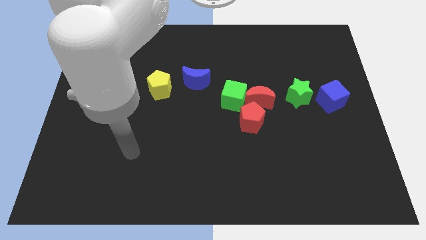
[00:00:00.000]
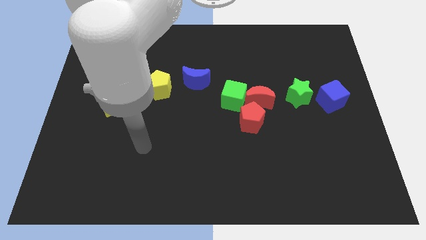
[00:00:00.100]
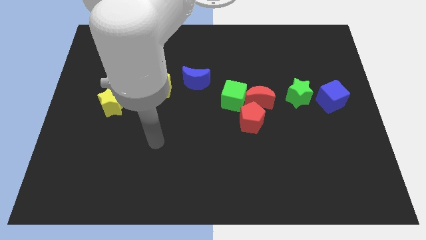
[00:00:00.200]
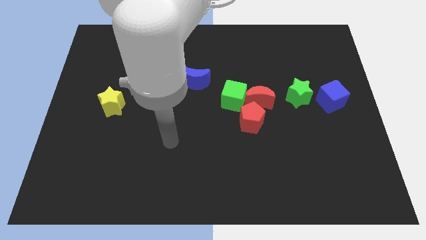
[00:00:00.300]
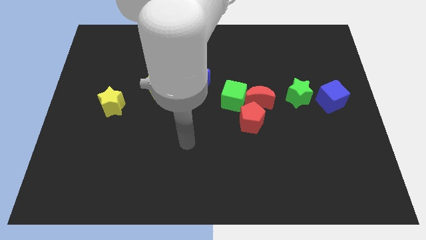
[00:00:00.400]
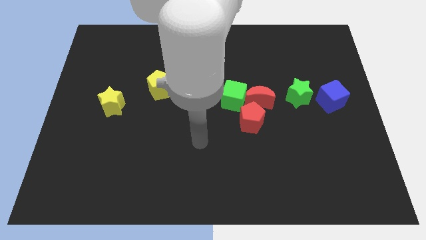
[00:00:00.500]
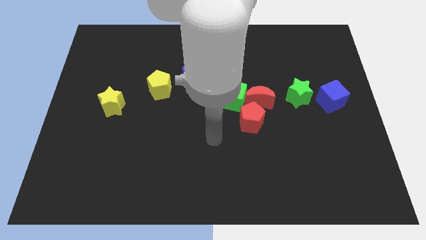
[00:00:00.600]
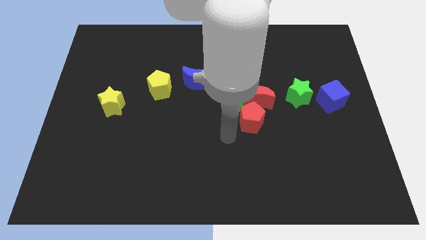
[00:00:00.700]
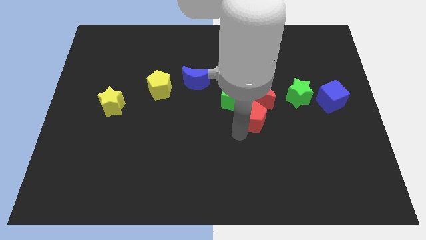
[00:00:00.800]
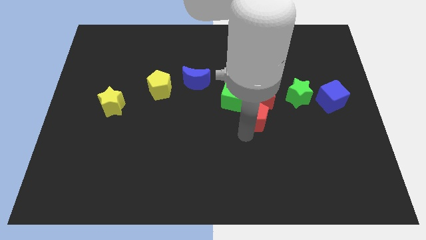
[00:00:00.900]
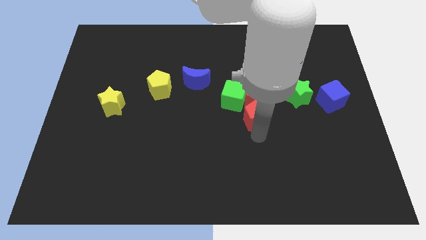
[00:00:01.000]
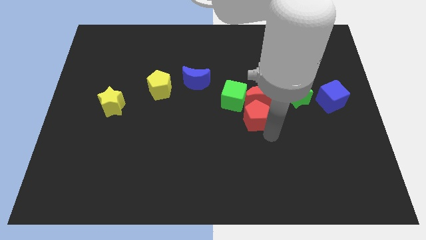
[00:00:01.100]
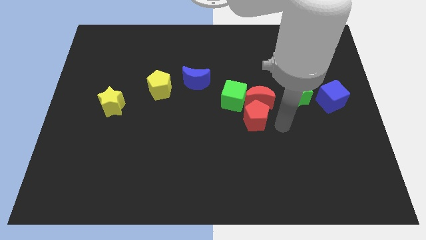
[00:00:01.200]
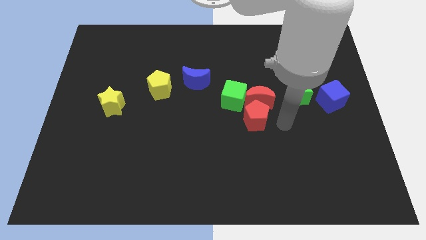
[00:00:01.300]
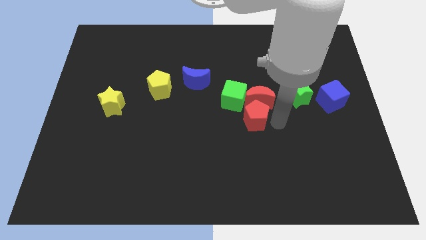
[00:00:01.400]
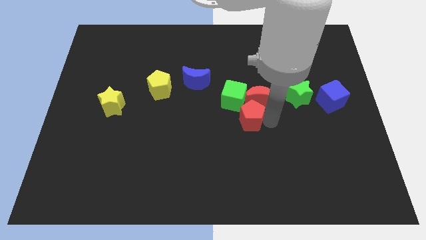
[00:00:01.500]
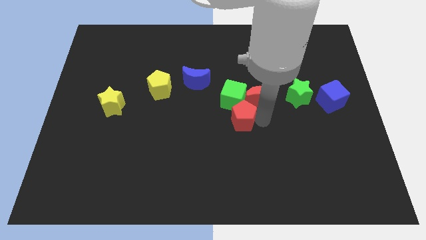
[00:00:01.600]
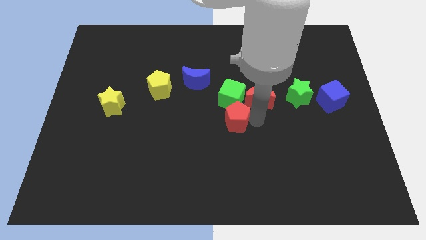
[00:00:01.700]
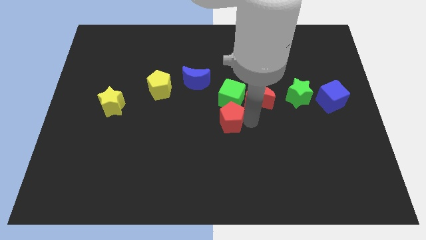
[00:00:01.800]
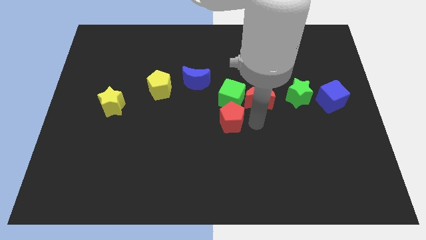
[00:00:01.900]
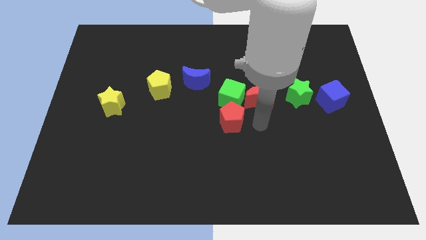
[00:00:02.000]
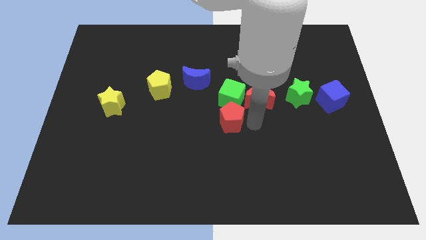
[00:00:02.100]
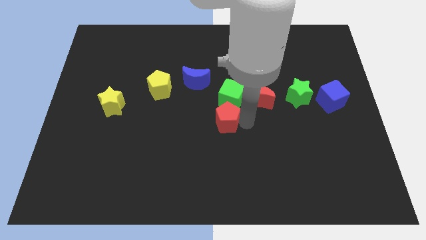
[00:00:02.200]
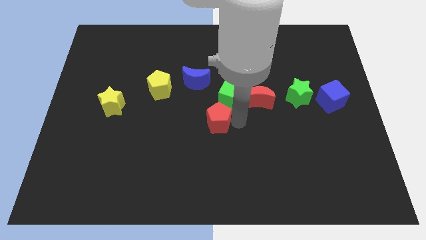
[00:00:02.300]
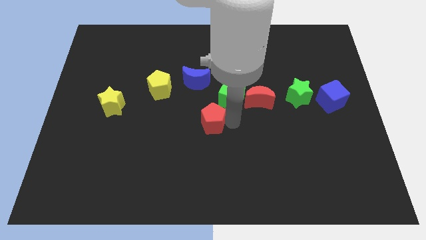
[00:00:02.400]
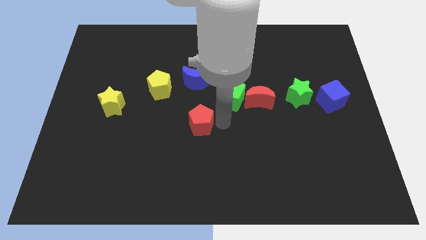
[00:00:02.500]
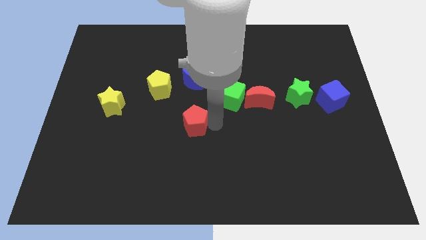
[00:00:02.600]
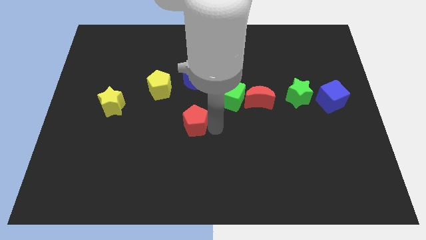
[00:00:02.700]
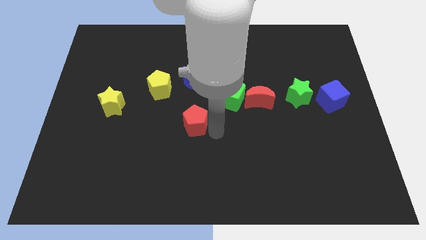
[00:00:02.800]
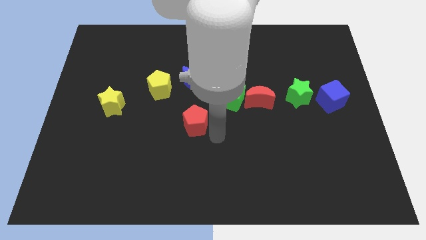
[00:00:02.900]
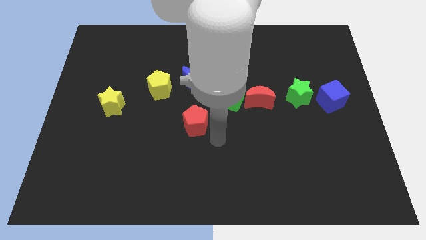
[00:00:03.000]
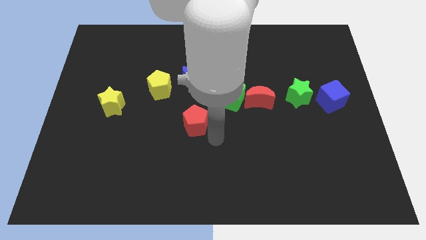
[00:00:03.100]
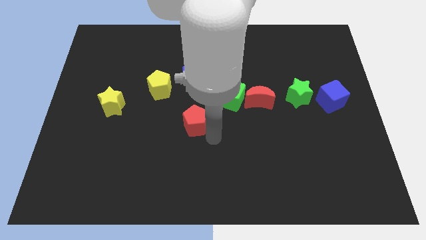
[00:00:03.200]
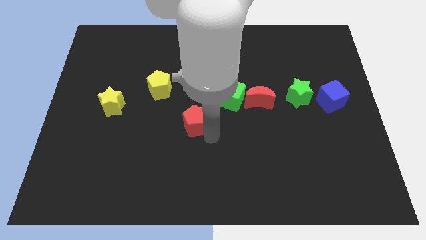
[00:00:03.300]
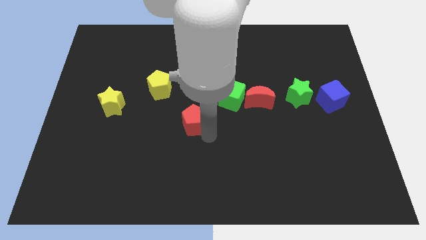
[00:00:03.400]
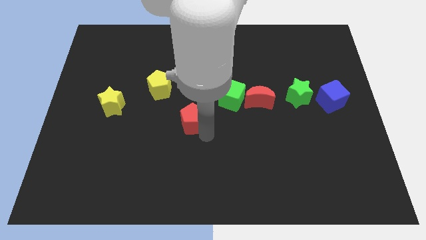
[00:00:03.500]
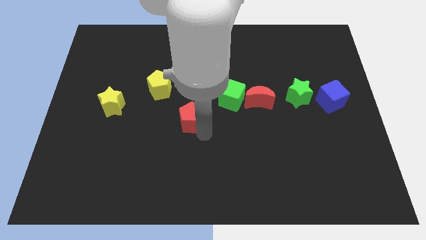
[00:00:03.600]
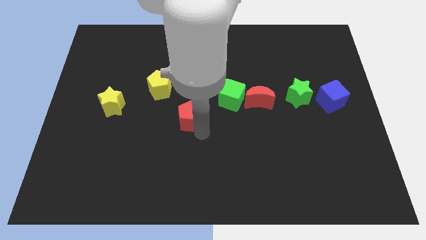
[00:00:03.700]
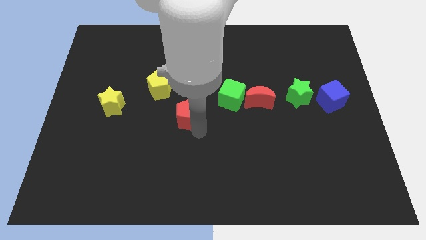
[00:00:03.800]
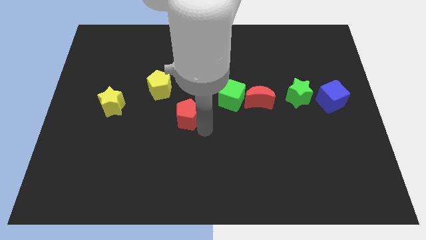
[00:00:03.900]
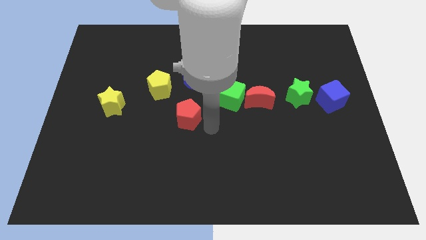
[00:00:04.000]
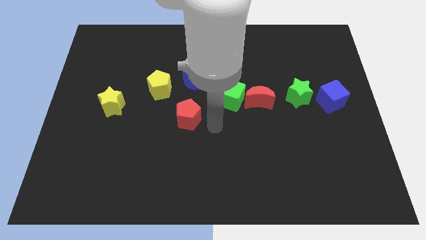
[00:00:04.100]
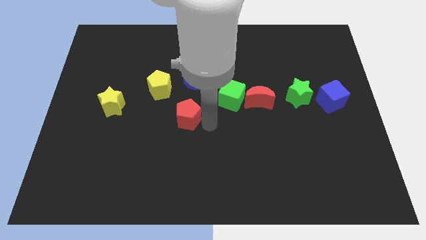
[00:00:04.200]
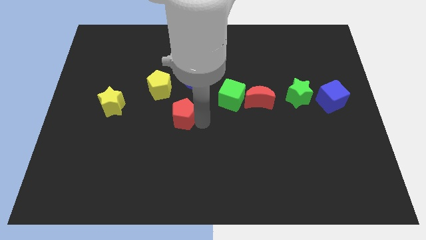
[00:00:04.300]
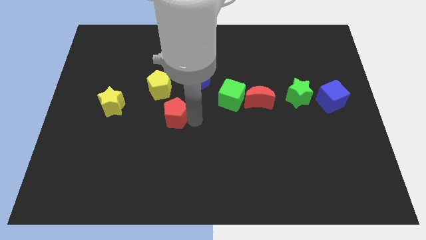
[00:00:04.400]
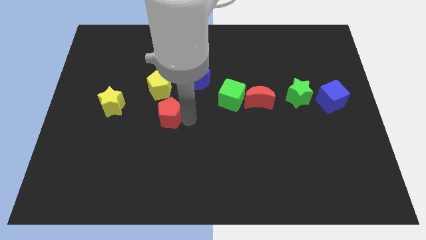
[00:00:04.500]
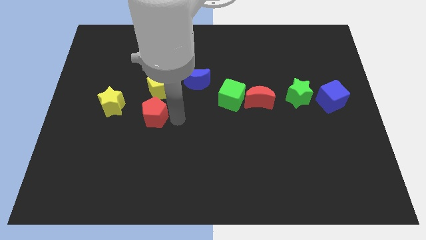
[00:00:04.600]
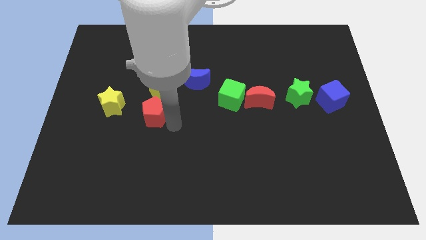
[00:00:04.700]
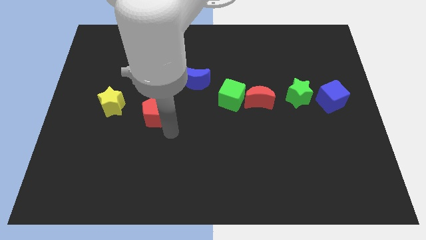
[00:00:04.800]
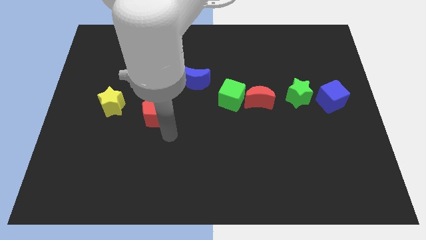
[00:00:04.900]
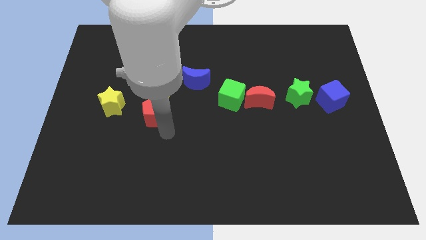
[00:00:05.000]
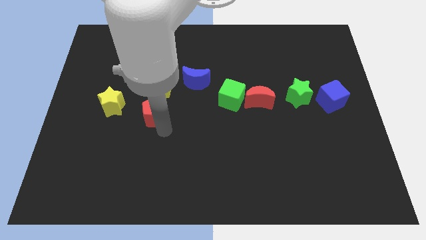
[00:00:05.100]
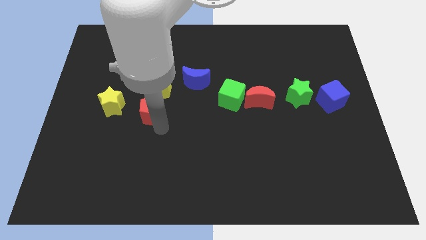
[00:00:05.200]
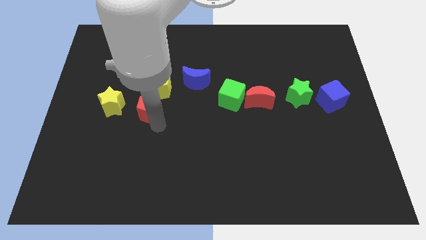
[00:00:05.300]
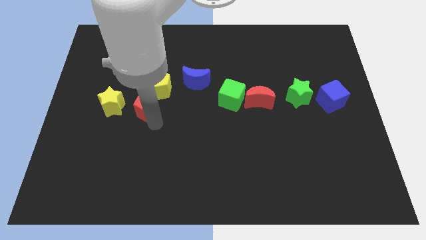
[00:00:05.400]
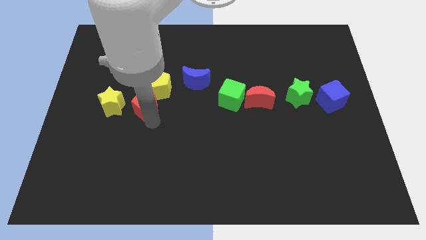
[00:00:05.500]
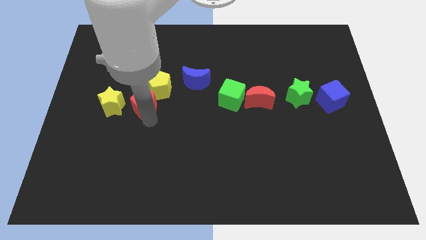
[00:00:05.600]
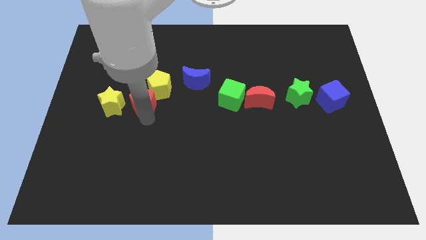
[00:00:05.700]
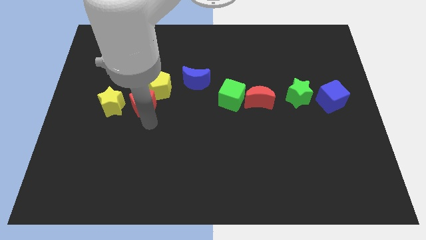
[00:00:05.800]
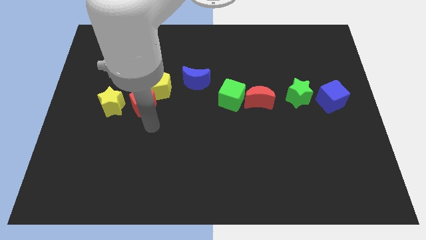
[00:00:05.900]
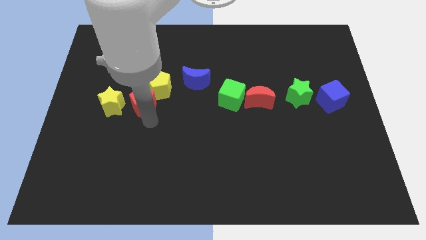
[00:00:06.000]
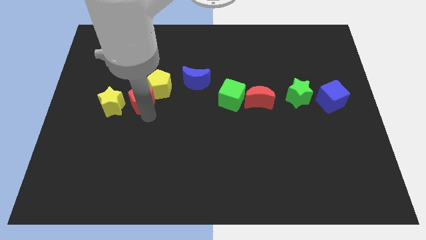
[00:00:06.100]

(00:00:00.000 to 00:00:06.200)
move the red pentagon to the top right side of the yellow star

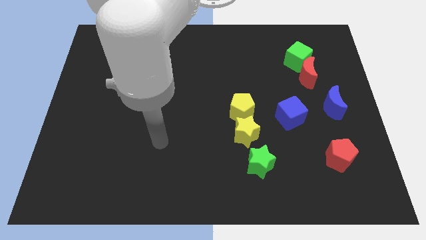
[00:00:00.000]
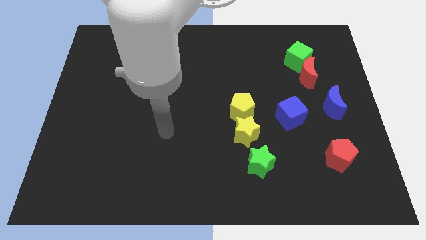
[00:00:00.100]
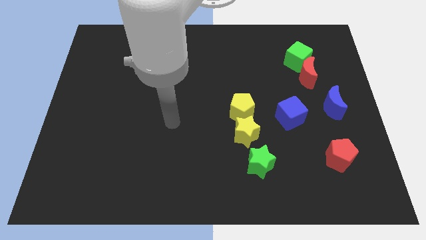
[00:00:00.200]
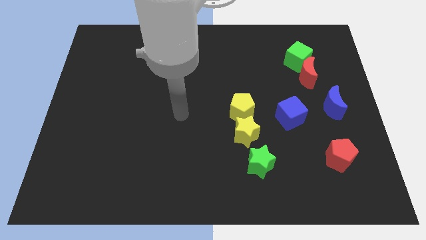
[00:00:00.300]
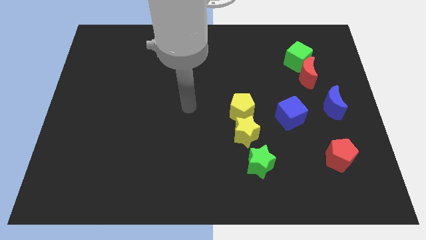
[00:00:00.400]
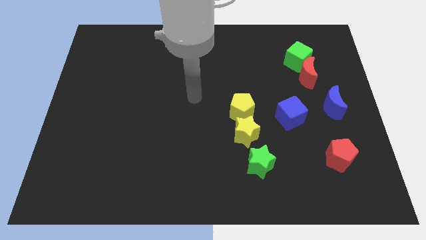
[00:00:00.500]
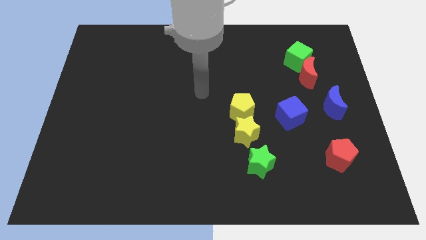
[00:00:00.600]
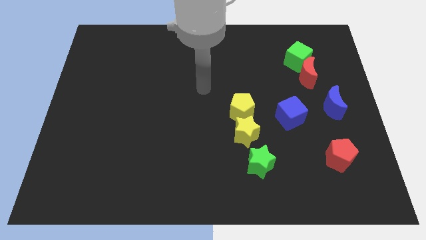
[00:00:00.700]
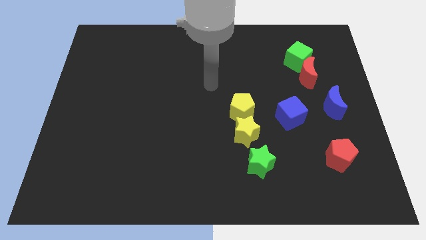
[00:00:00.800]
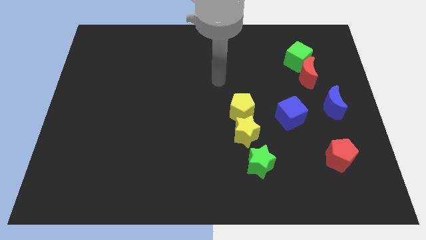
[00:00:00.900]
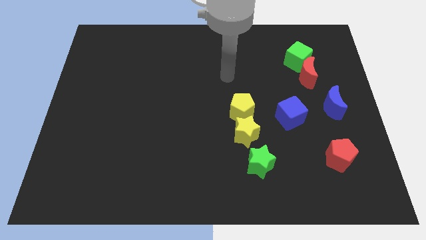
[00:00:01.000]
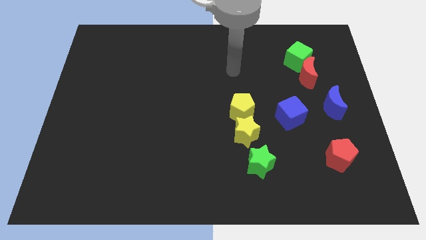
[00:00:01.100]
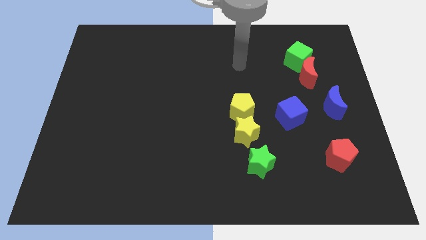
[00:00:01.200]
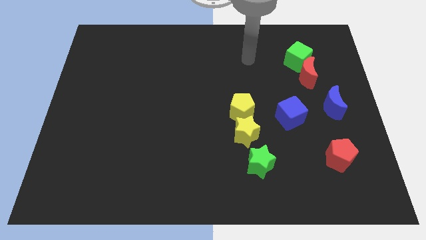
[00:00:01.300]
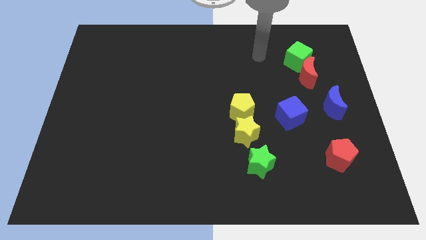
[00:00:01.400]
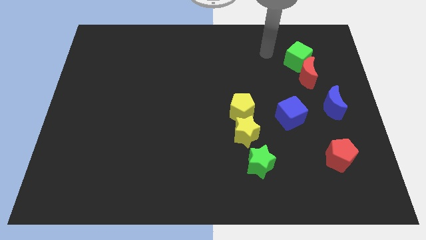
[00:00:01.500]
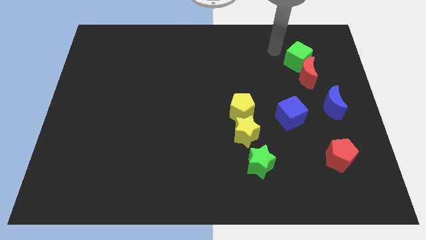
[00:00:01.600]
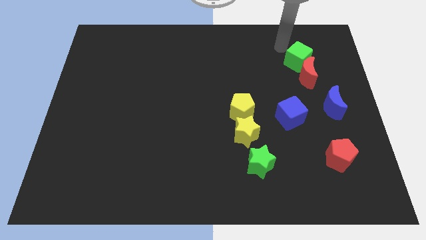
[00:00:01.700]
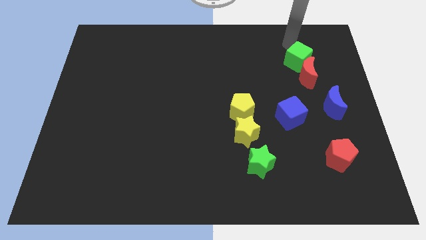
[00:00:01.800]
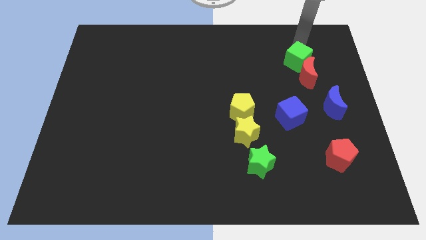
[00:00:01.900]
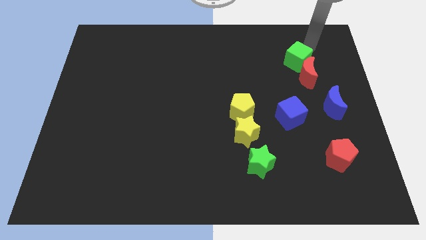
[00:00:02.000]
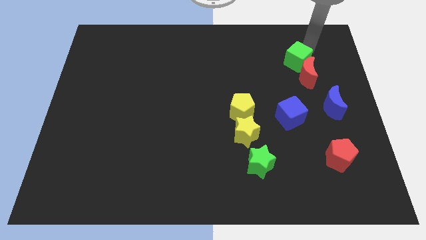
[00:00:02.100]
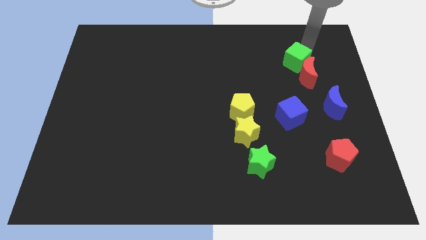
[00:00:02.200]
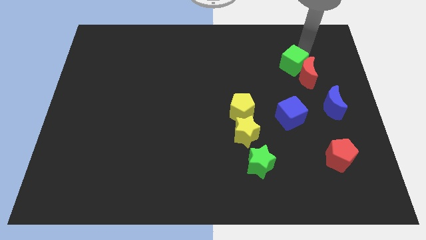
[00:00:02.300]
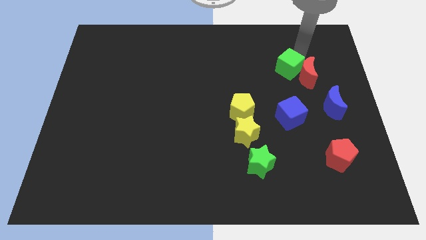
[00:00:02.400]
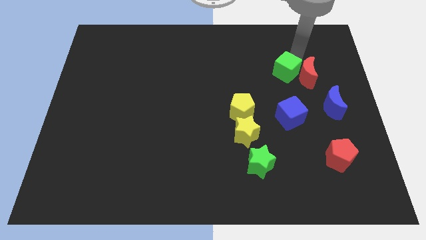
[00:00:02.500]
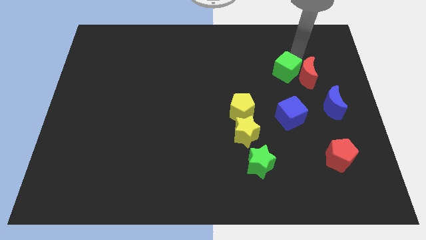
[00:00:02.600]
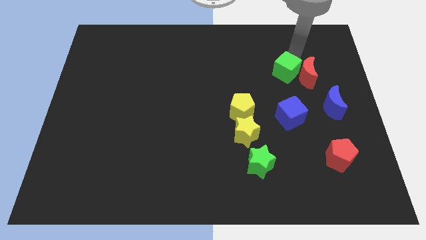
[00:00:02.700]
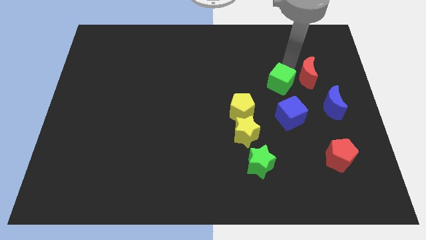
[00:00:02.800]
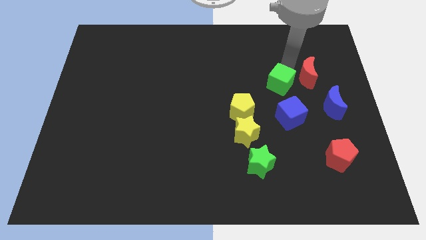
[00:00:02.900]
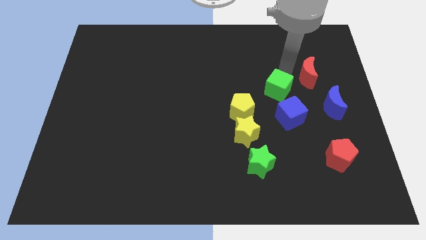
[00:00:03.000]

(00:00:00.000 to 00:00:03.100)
push the green cube to the top left of the blue cube
